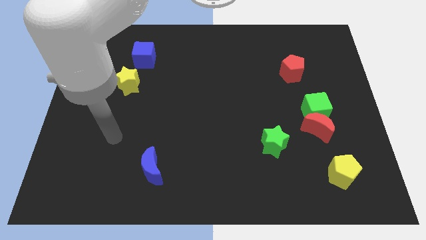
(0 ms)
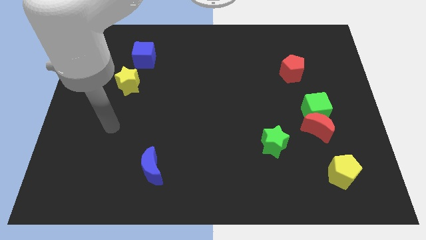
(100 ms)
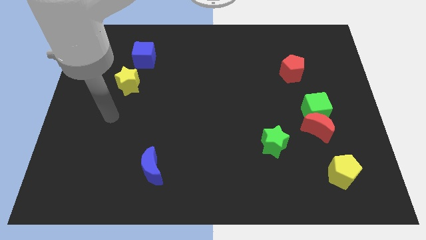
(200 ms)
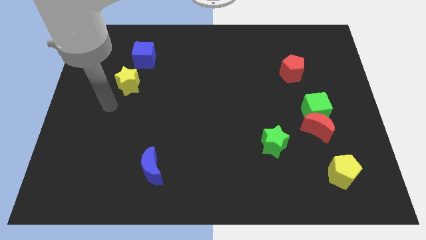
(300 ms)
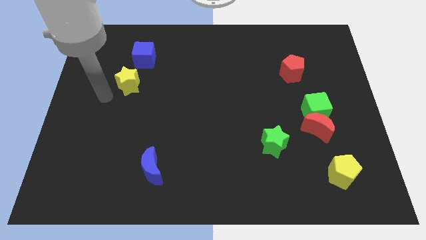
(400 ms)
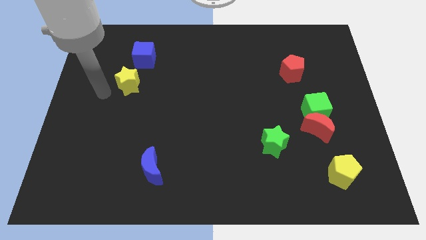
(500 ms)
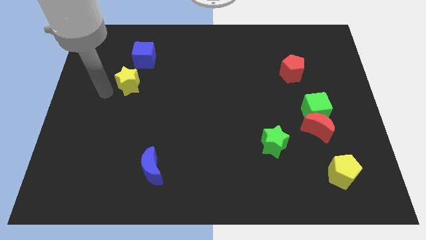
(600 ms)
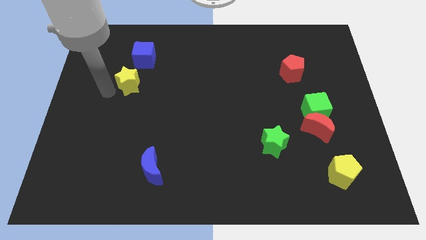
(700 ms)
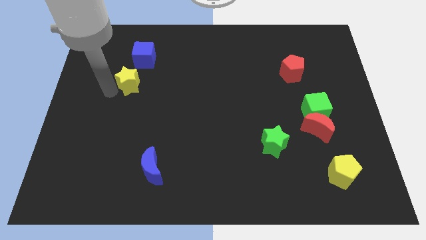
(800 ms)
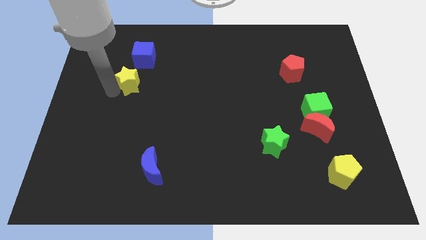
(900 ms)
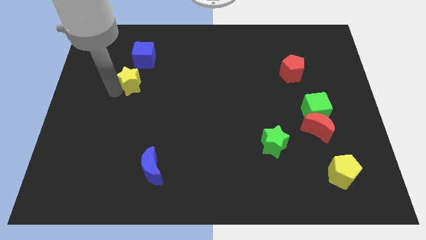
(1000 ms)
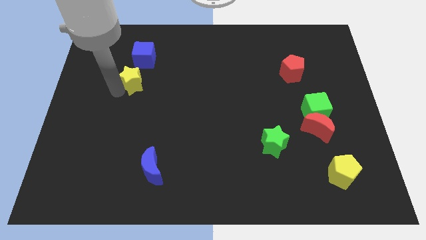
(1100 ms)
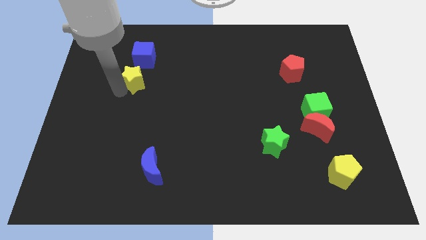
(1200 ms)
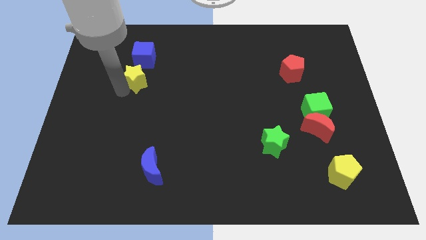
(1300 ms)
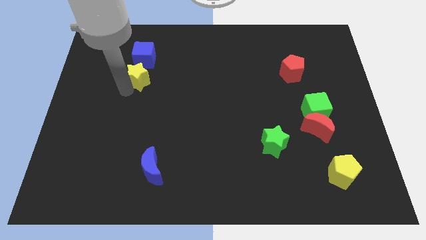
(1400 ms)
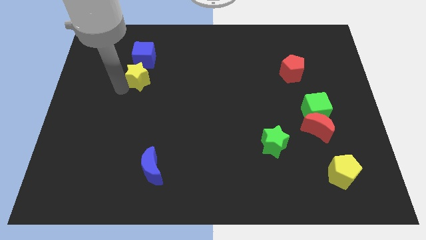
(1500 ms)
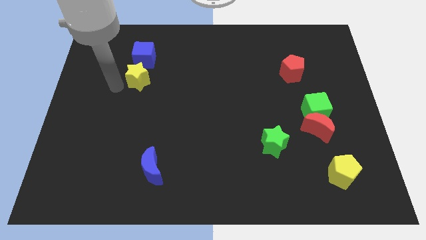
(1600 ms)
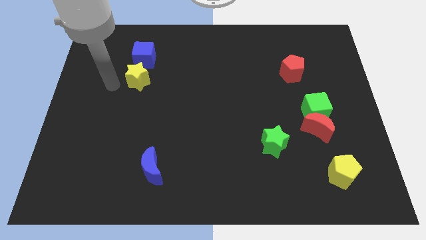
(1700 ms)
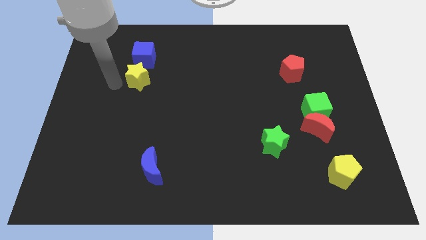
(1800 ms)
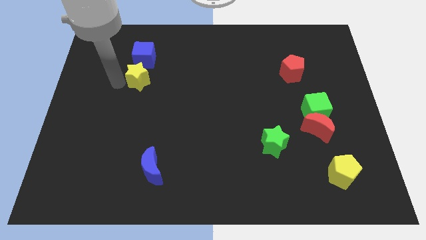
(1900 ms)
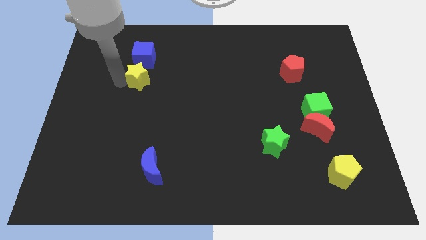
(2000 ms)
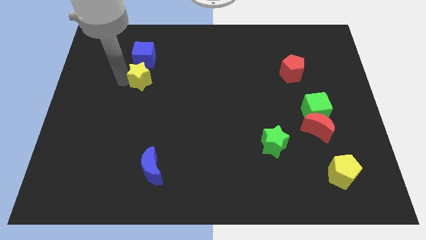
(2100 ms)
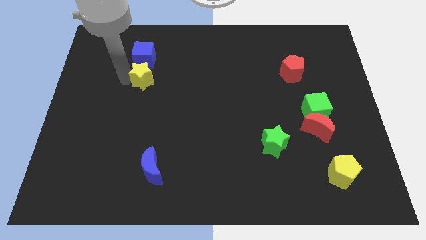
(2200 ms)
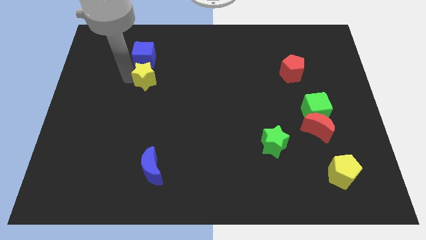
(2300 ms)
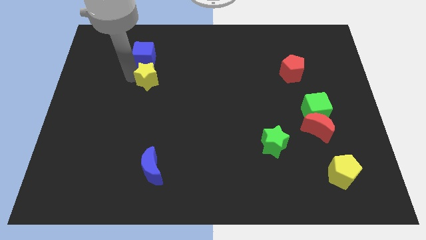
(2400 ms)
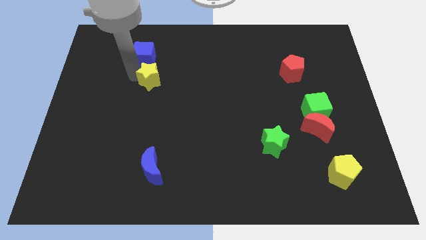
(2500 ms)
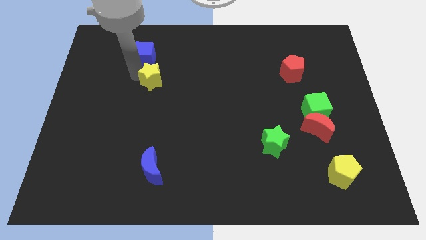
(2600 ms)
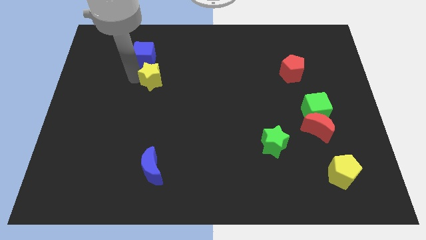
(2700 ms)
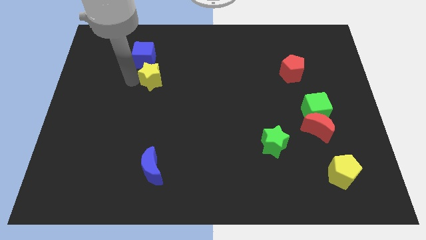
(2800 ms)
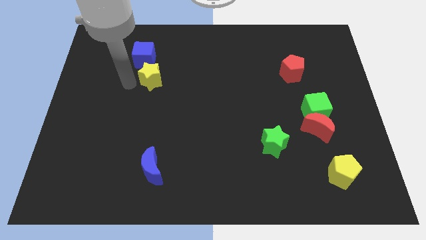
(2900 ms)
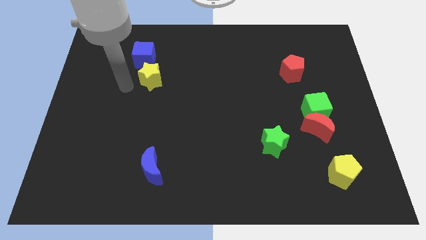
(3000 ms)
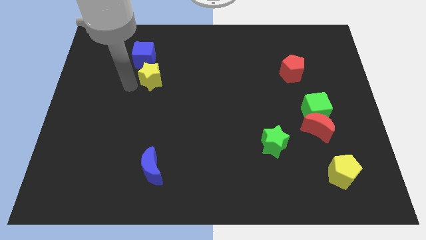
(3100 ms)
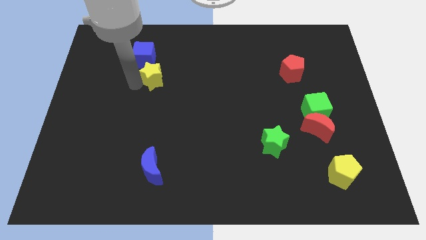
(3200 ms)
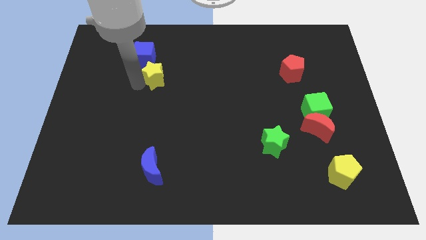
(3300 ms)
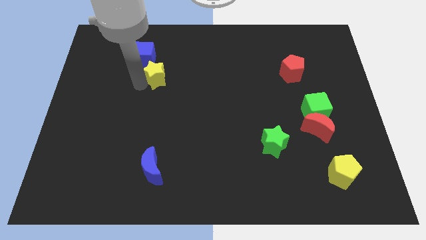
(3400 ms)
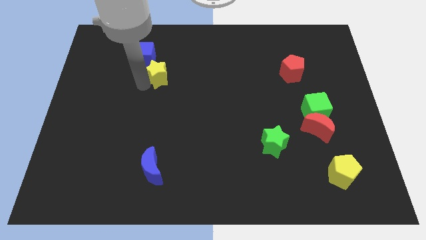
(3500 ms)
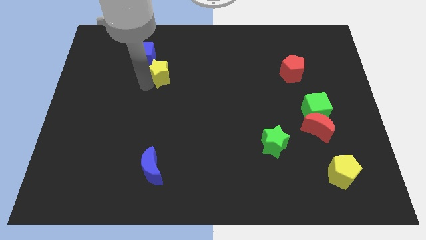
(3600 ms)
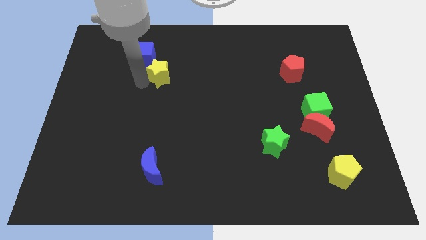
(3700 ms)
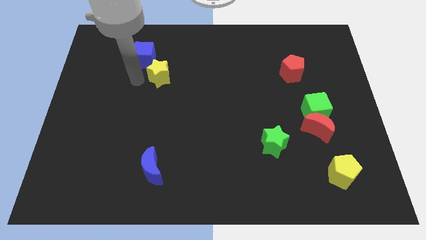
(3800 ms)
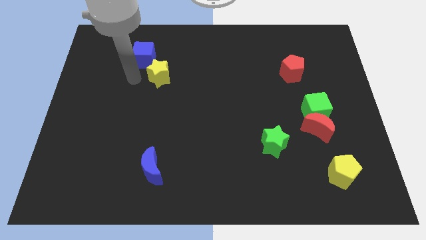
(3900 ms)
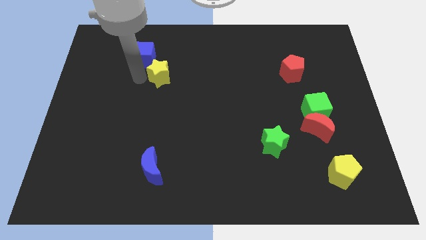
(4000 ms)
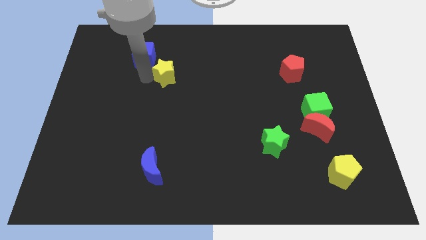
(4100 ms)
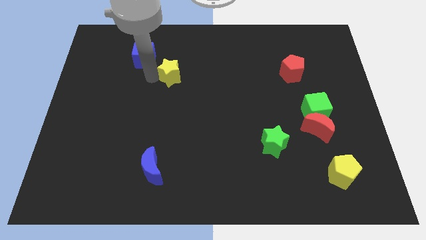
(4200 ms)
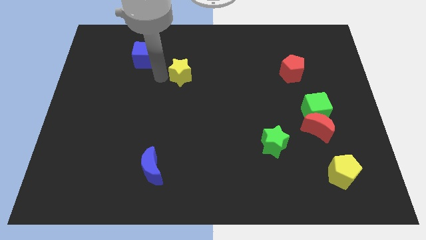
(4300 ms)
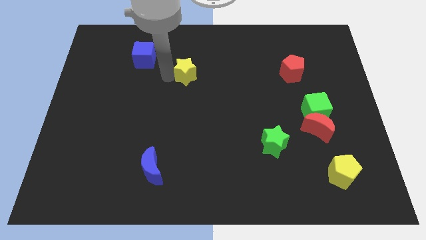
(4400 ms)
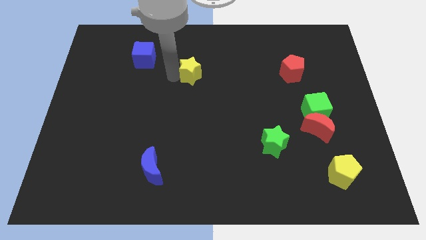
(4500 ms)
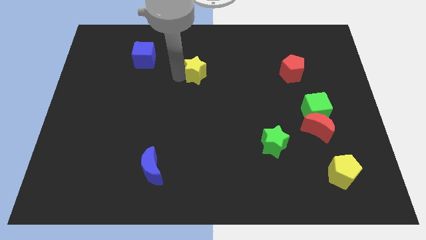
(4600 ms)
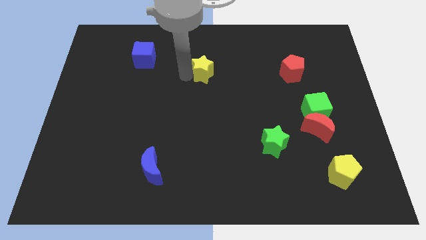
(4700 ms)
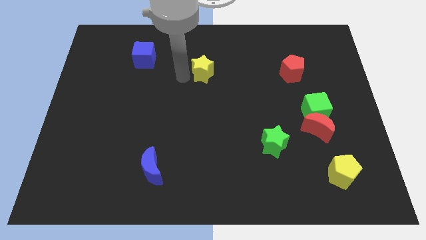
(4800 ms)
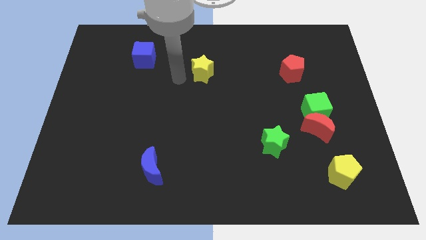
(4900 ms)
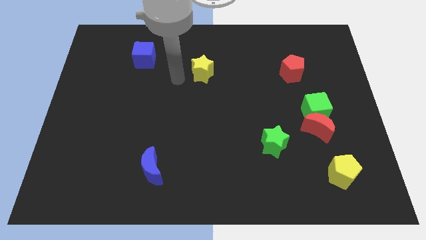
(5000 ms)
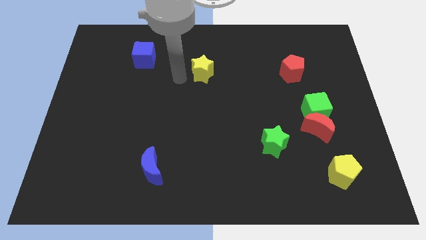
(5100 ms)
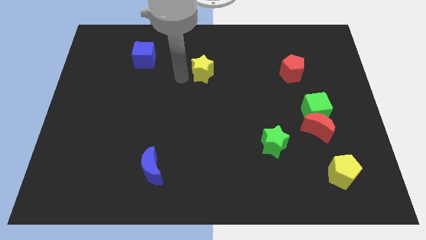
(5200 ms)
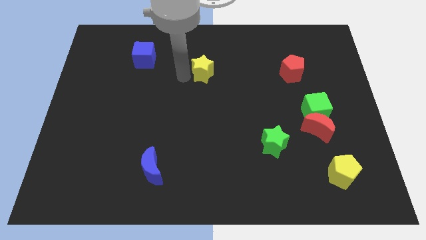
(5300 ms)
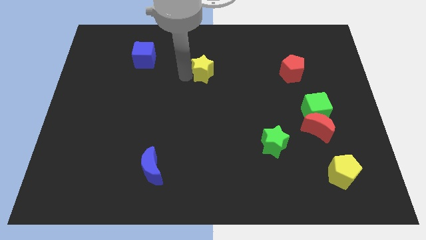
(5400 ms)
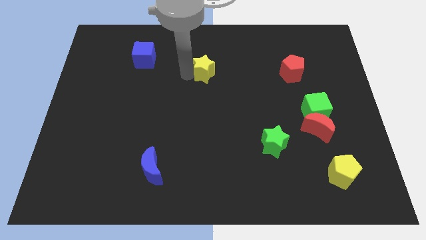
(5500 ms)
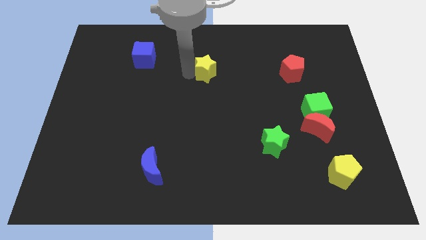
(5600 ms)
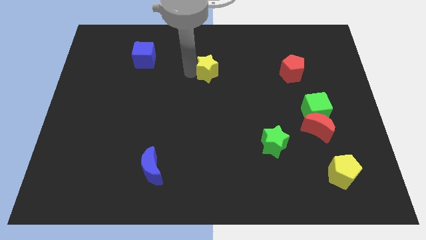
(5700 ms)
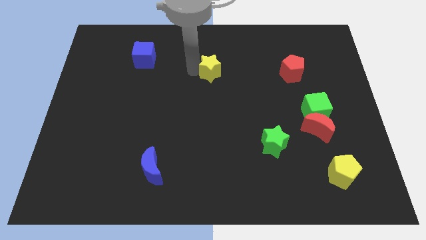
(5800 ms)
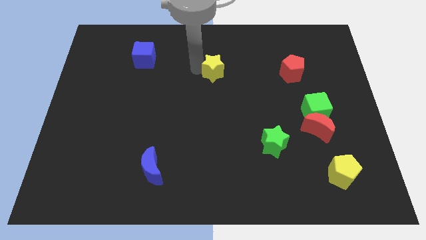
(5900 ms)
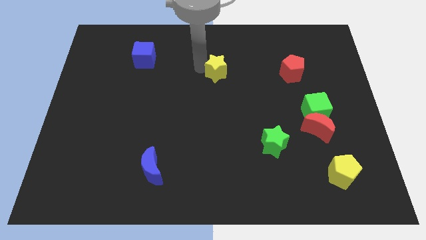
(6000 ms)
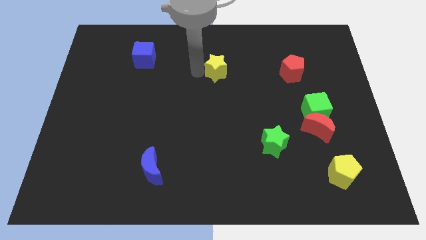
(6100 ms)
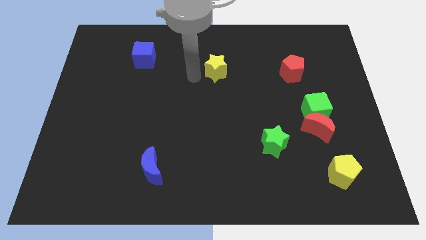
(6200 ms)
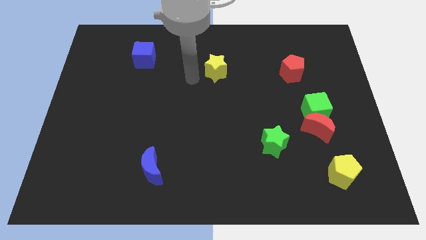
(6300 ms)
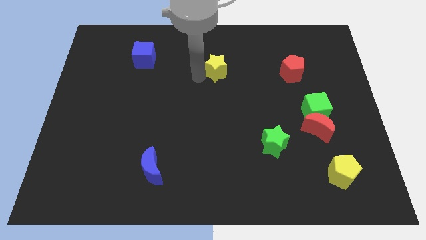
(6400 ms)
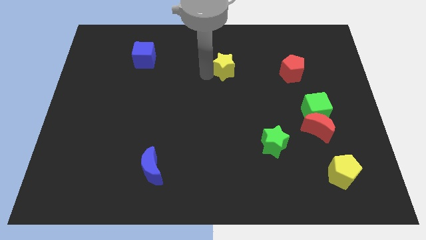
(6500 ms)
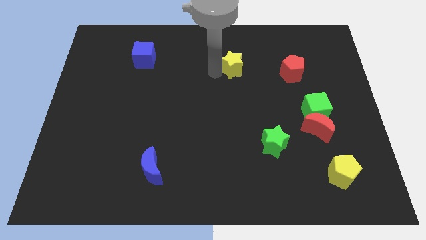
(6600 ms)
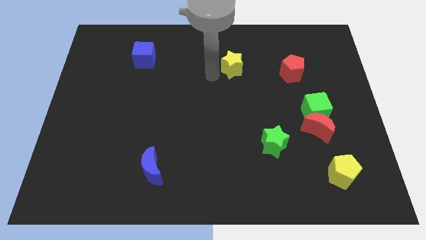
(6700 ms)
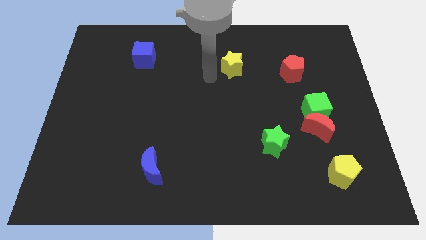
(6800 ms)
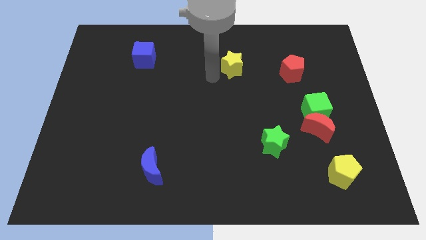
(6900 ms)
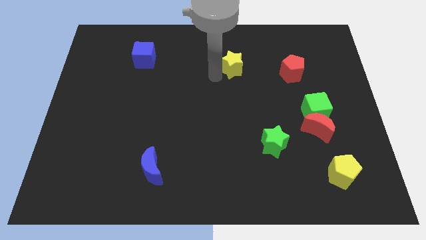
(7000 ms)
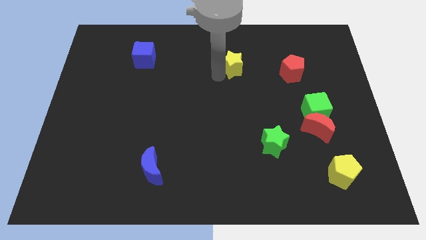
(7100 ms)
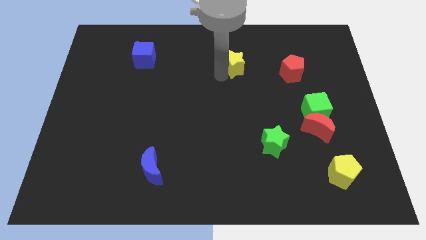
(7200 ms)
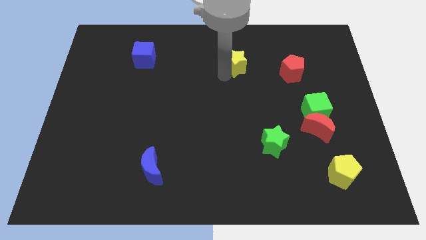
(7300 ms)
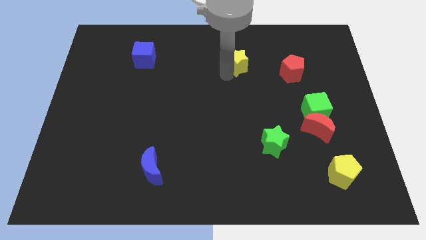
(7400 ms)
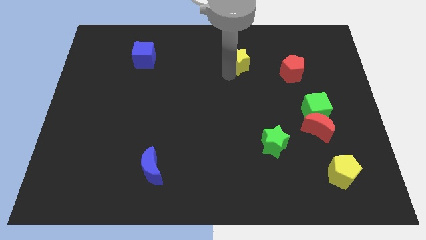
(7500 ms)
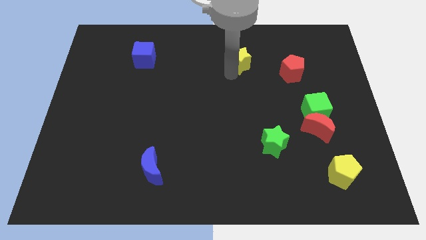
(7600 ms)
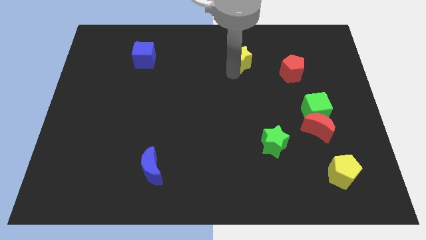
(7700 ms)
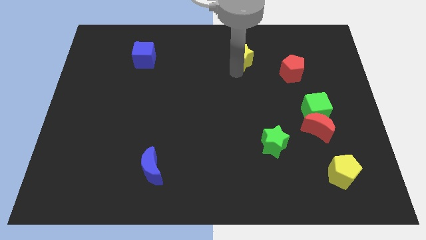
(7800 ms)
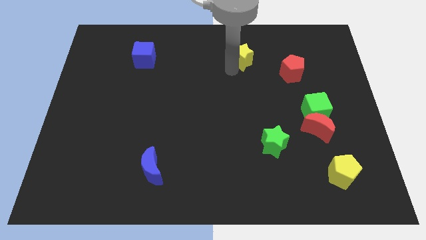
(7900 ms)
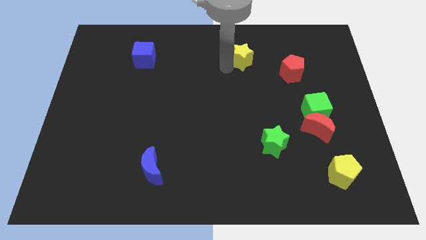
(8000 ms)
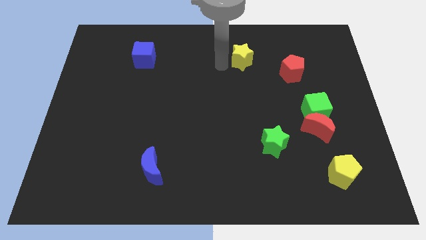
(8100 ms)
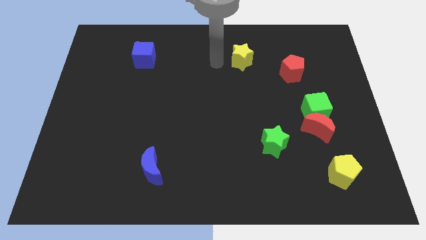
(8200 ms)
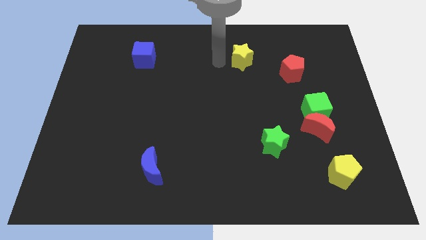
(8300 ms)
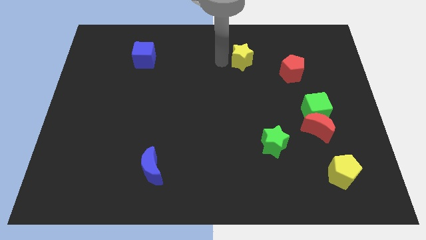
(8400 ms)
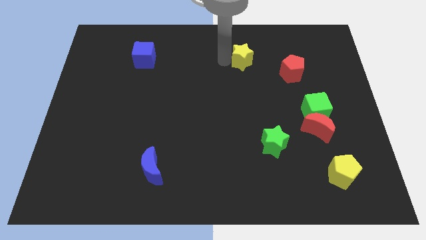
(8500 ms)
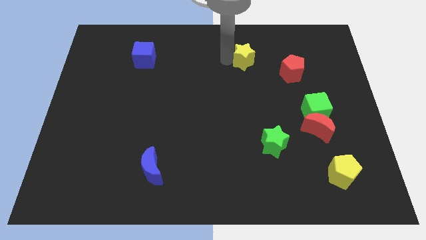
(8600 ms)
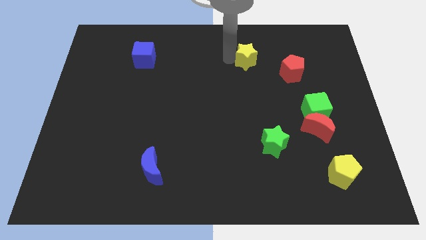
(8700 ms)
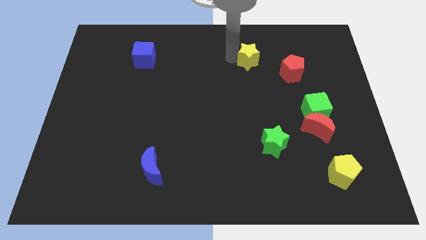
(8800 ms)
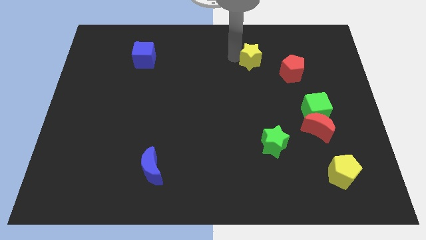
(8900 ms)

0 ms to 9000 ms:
put the yellow star to the top left of the red pentagon
